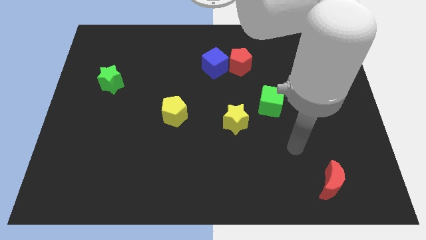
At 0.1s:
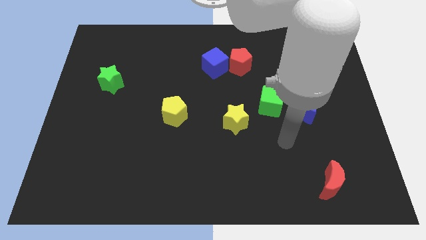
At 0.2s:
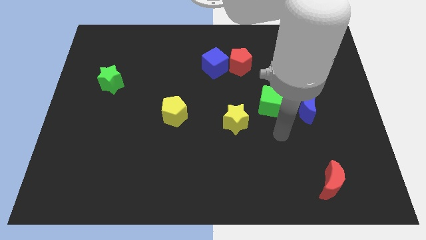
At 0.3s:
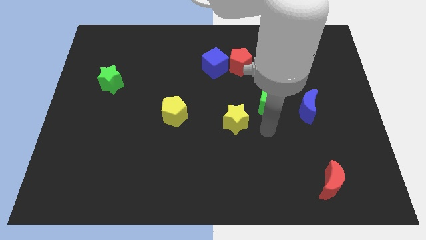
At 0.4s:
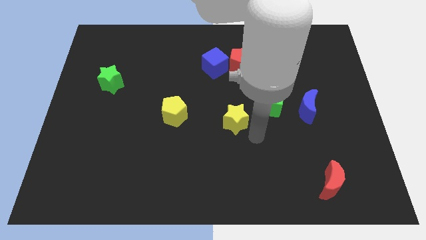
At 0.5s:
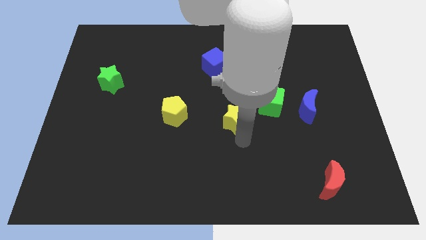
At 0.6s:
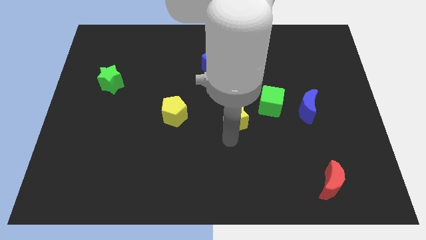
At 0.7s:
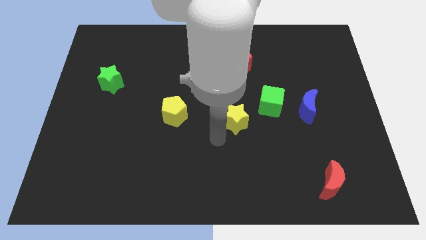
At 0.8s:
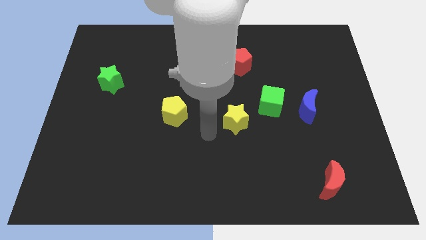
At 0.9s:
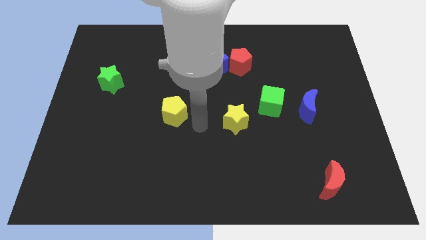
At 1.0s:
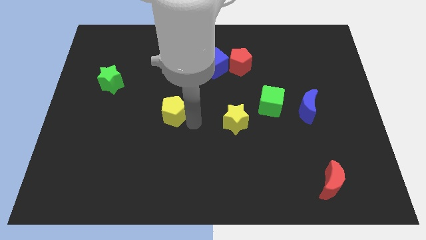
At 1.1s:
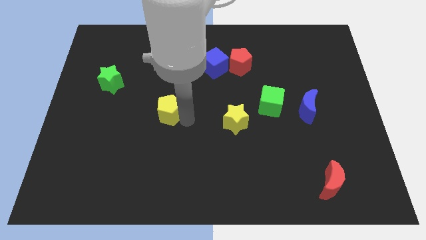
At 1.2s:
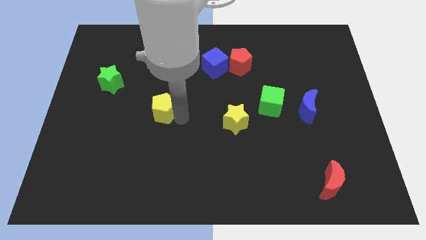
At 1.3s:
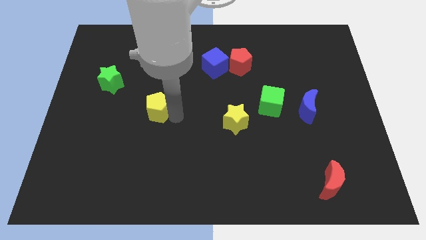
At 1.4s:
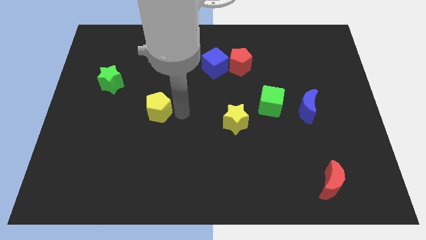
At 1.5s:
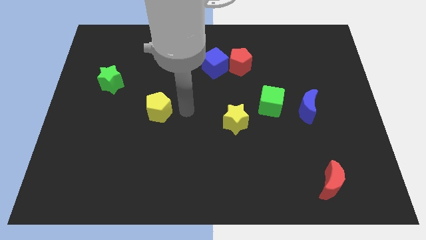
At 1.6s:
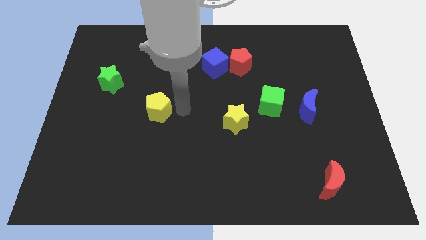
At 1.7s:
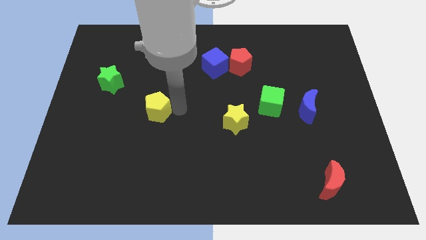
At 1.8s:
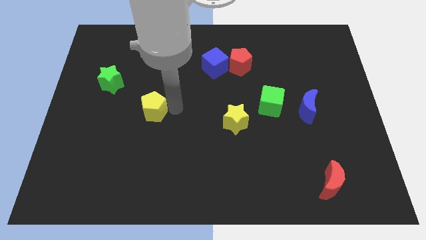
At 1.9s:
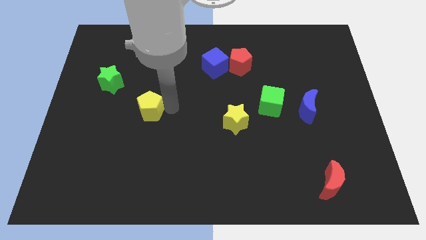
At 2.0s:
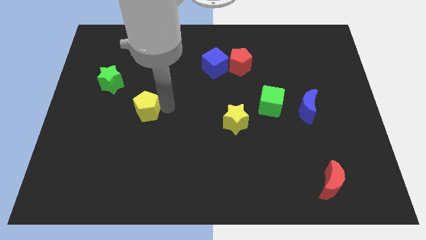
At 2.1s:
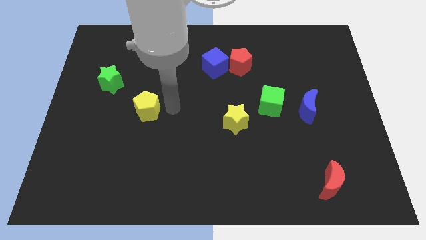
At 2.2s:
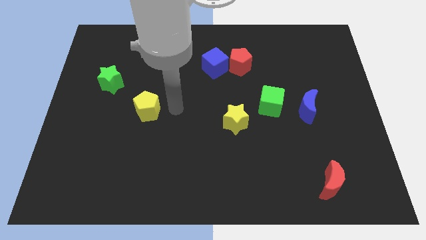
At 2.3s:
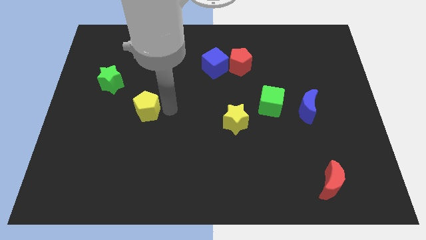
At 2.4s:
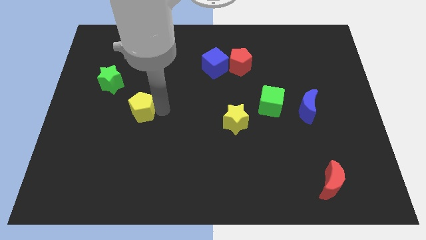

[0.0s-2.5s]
push the yellow pentagon a little bit left

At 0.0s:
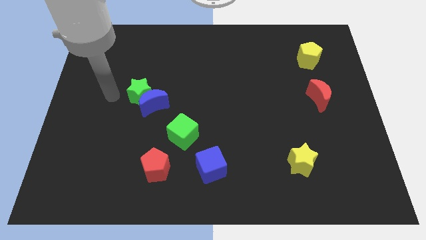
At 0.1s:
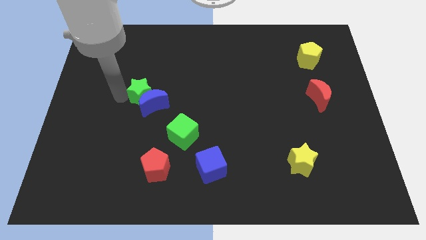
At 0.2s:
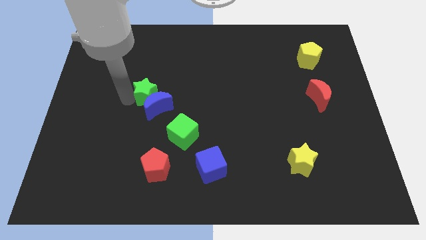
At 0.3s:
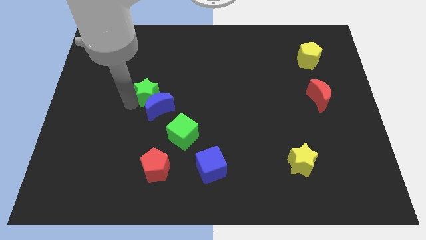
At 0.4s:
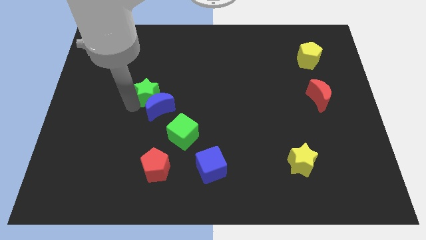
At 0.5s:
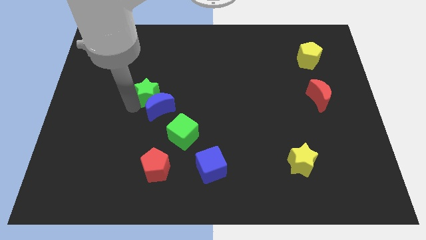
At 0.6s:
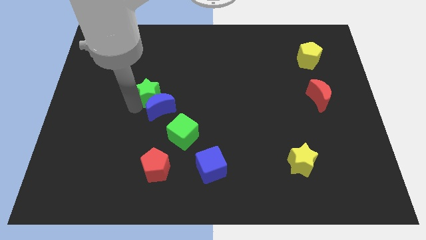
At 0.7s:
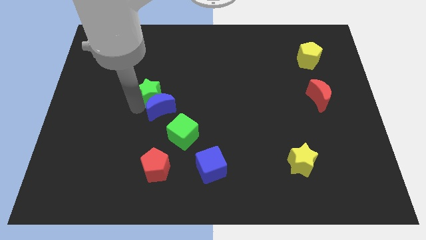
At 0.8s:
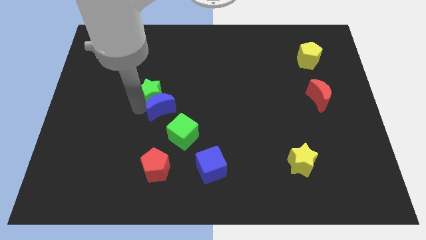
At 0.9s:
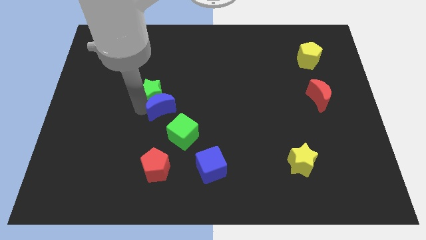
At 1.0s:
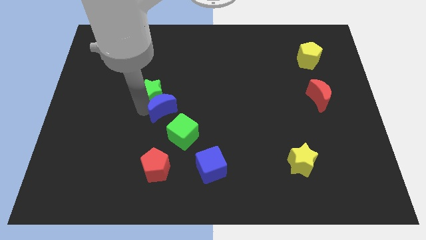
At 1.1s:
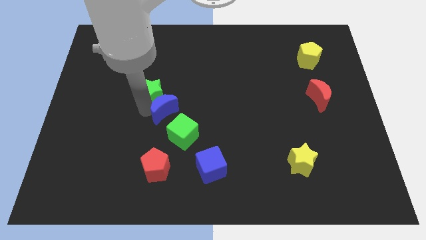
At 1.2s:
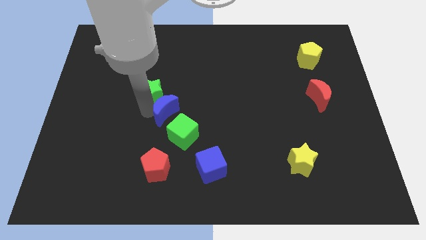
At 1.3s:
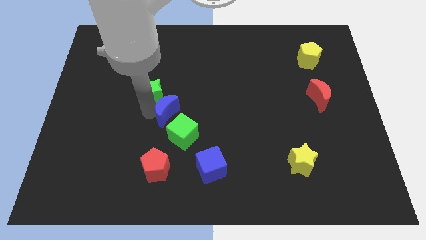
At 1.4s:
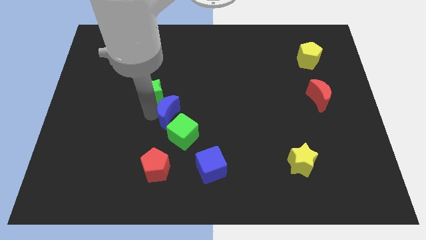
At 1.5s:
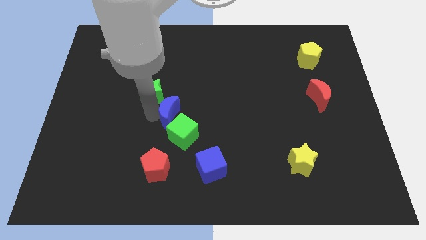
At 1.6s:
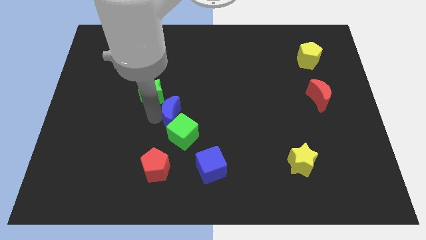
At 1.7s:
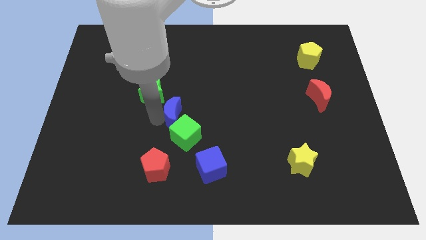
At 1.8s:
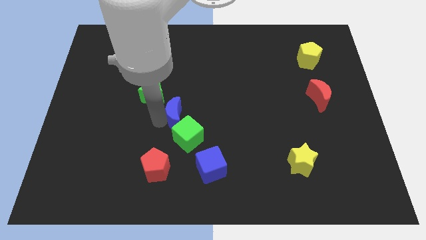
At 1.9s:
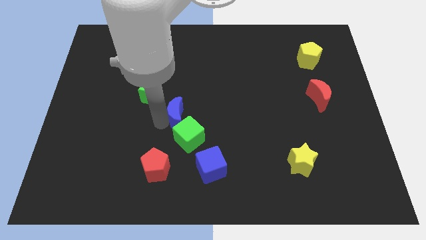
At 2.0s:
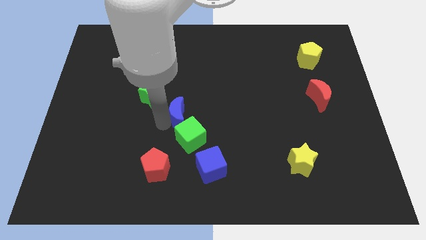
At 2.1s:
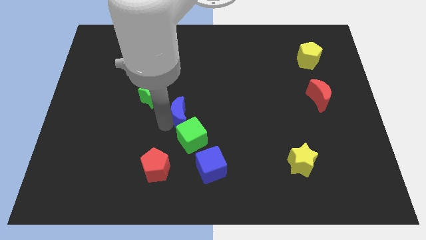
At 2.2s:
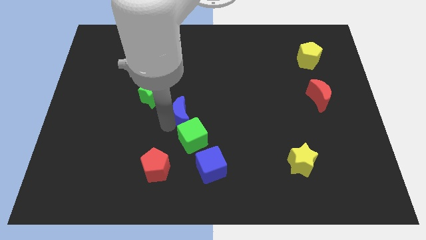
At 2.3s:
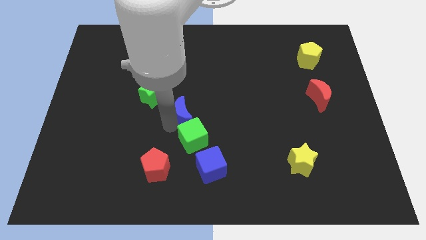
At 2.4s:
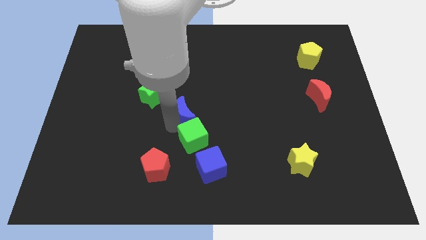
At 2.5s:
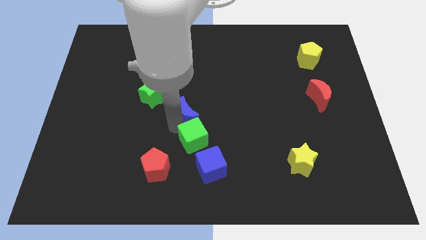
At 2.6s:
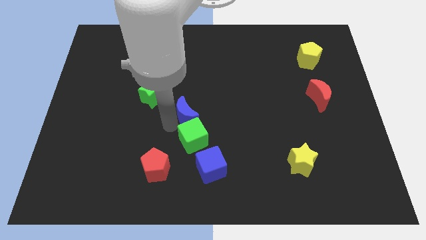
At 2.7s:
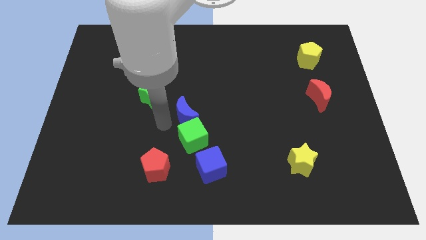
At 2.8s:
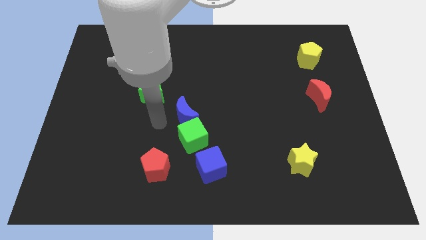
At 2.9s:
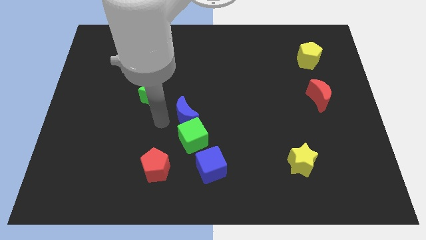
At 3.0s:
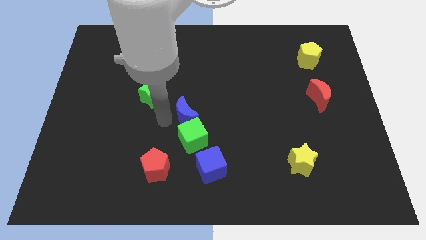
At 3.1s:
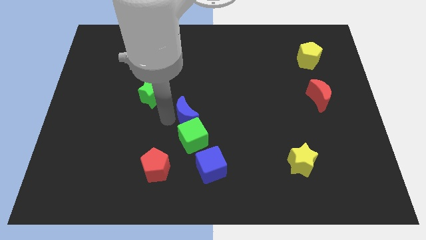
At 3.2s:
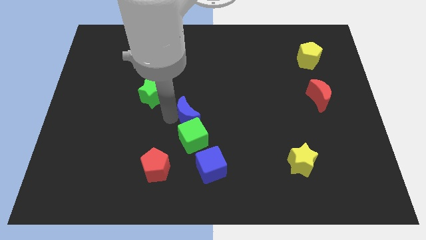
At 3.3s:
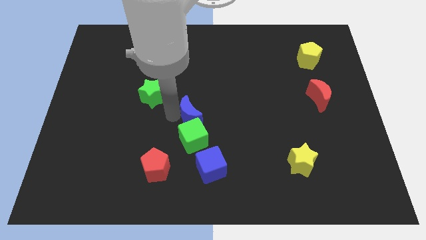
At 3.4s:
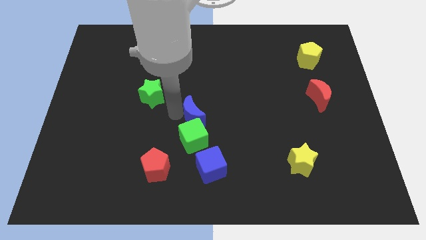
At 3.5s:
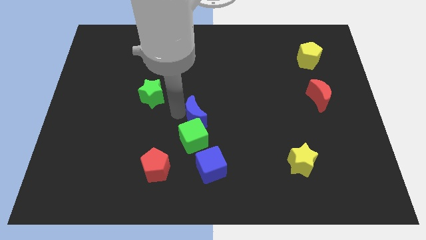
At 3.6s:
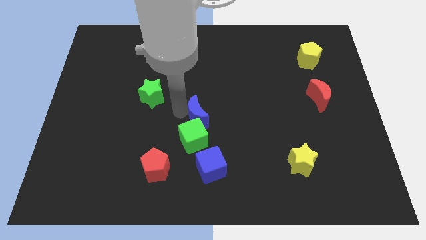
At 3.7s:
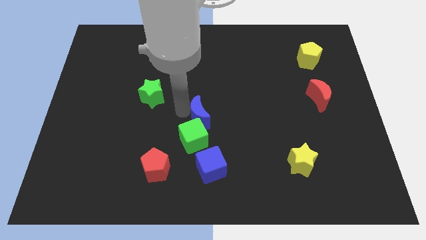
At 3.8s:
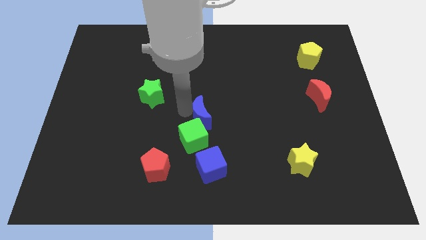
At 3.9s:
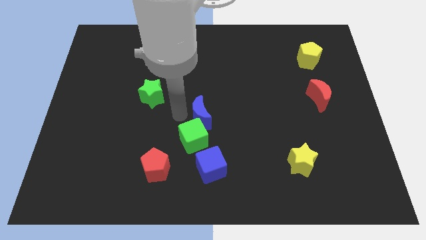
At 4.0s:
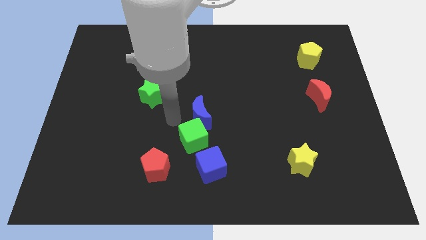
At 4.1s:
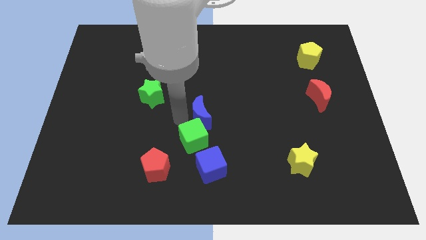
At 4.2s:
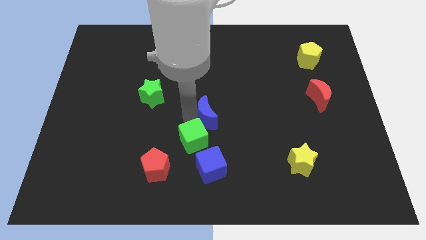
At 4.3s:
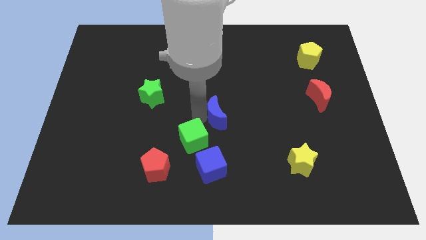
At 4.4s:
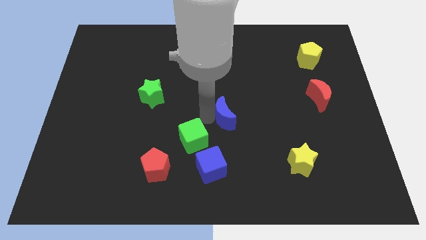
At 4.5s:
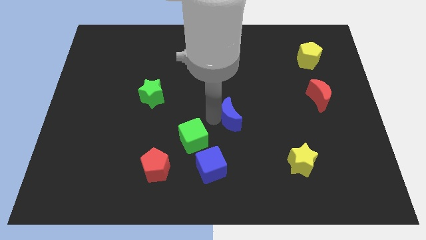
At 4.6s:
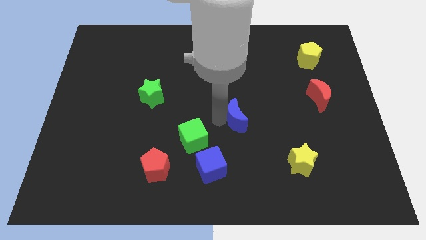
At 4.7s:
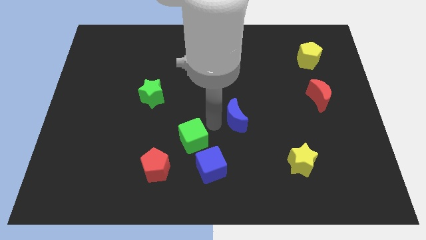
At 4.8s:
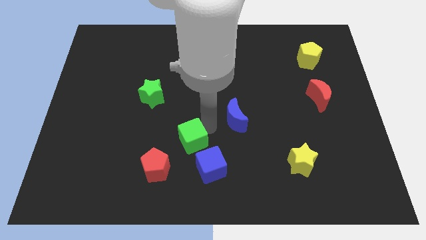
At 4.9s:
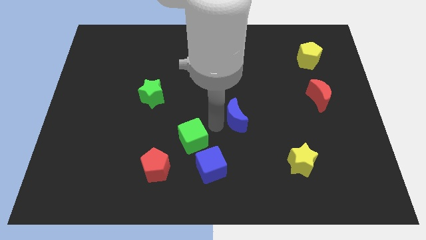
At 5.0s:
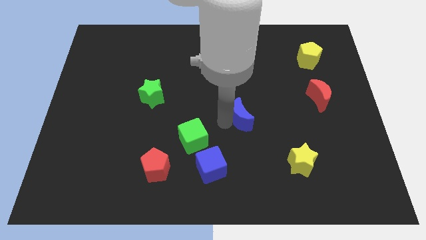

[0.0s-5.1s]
move the blue moon right

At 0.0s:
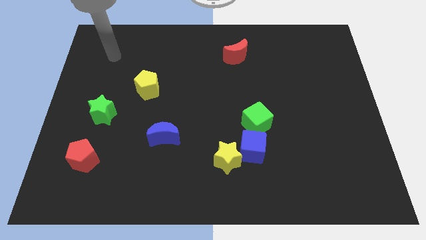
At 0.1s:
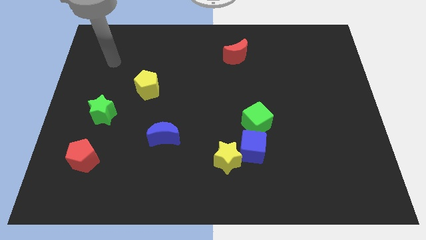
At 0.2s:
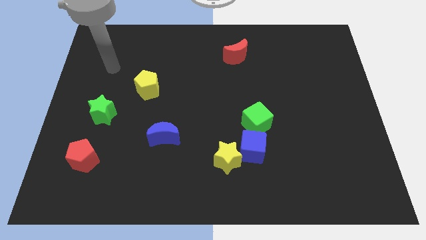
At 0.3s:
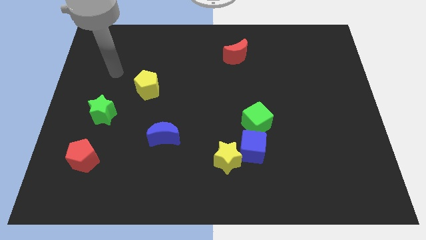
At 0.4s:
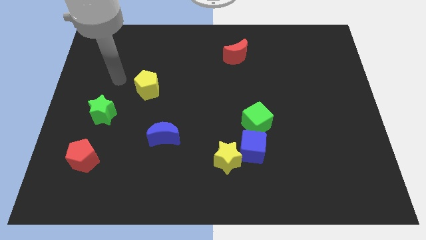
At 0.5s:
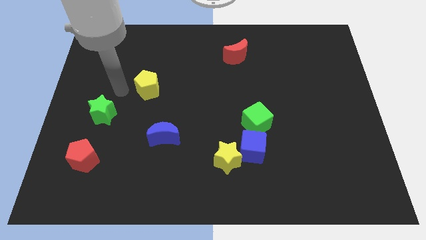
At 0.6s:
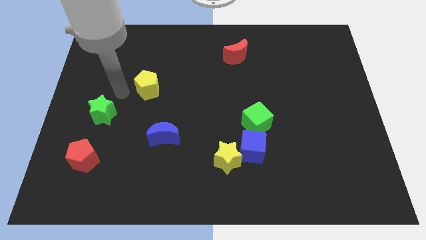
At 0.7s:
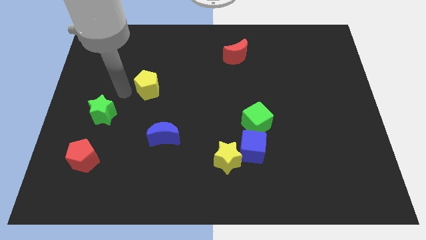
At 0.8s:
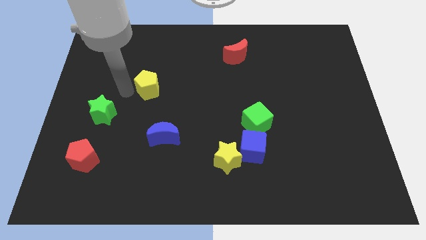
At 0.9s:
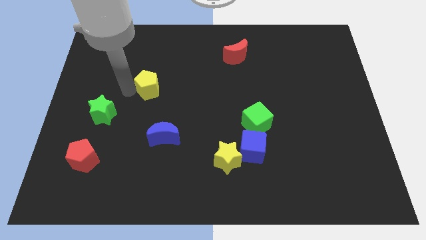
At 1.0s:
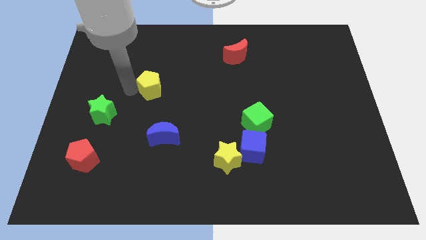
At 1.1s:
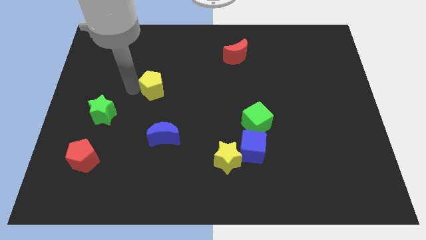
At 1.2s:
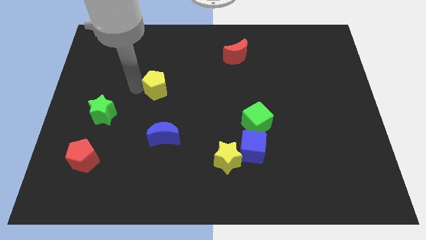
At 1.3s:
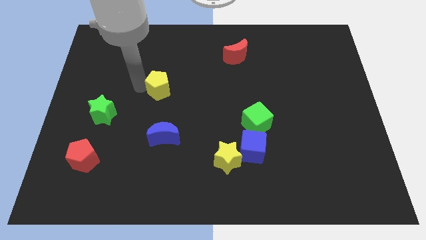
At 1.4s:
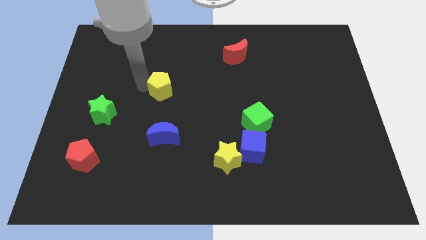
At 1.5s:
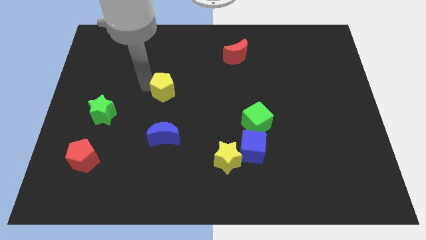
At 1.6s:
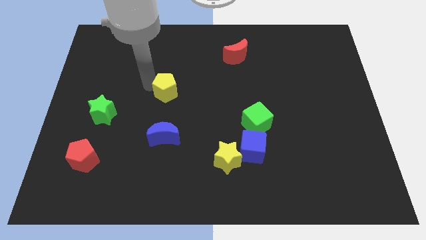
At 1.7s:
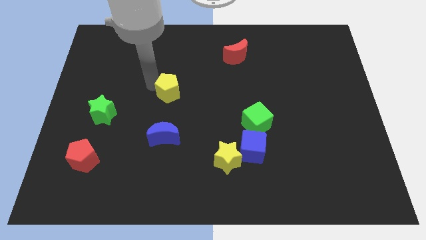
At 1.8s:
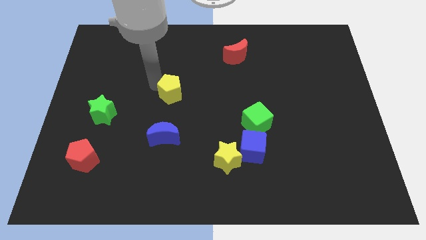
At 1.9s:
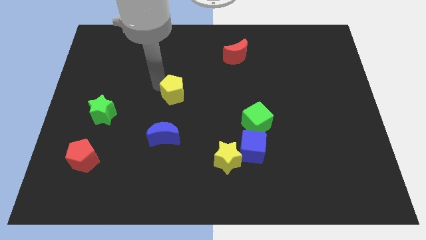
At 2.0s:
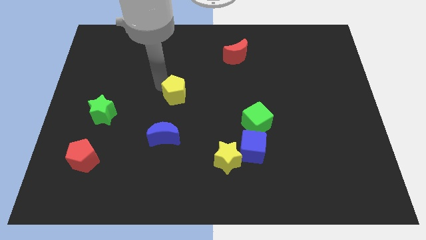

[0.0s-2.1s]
slightly push the yellow pentagon right
